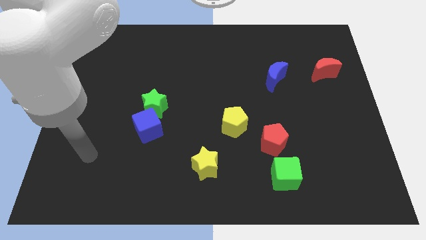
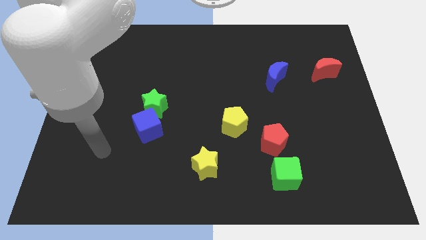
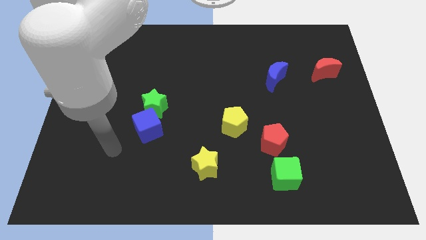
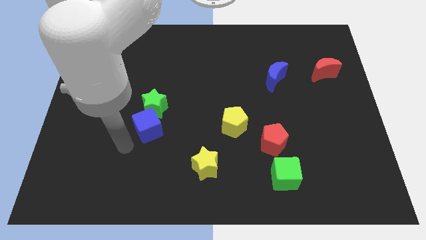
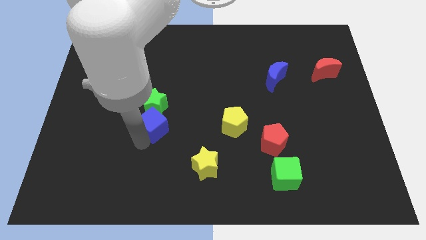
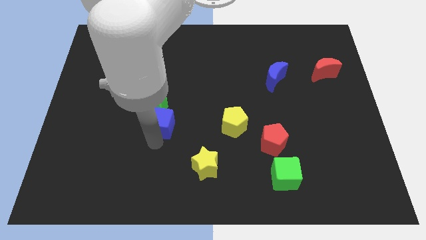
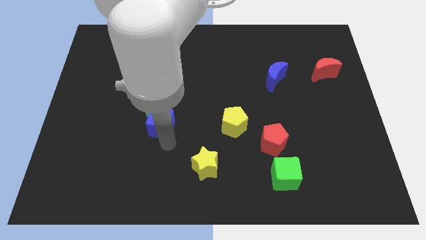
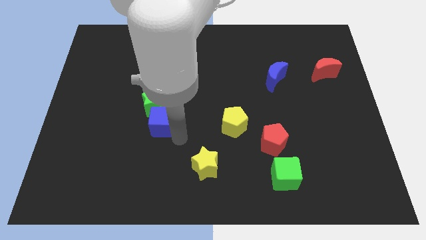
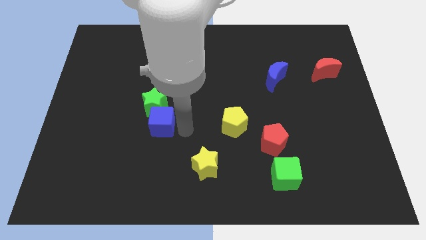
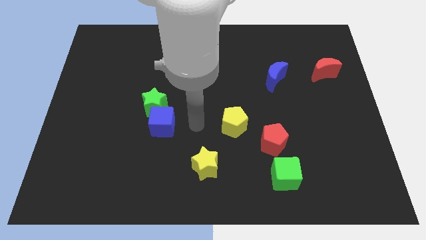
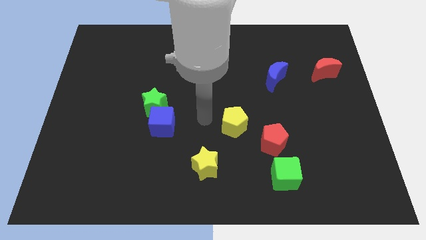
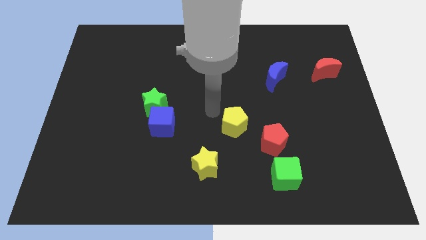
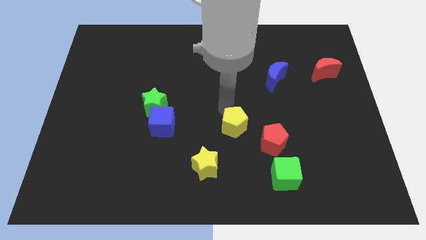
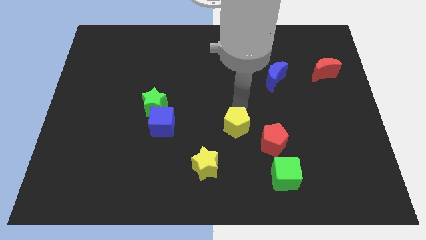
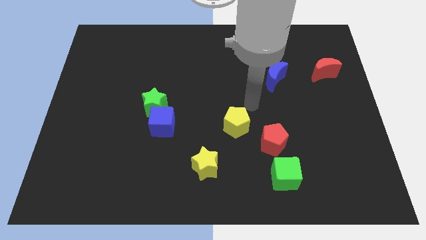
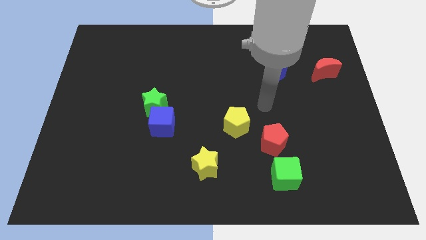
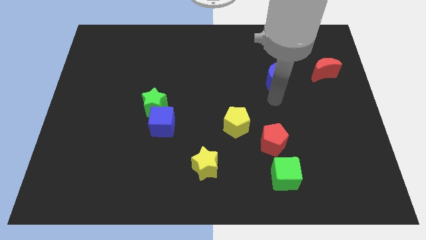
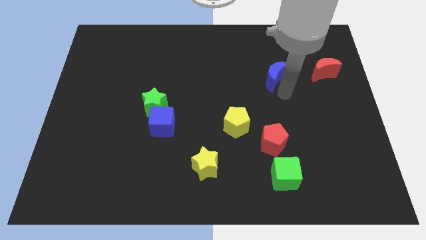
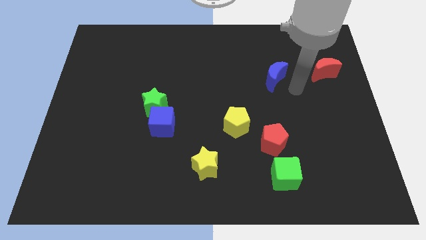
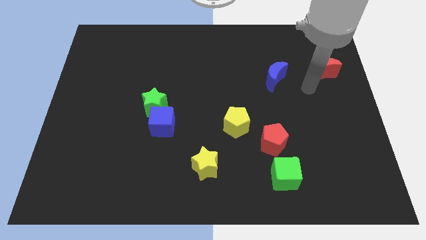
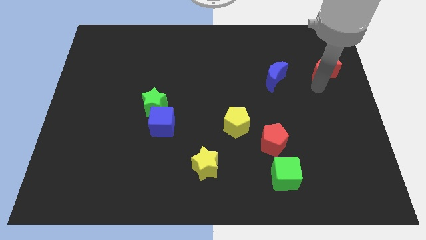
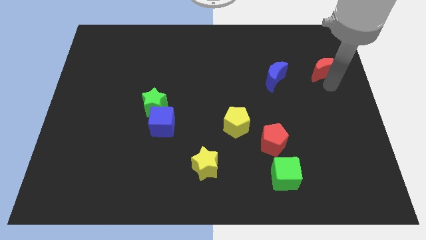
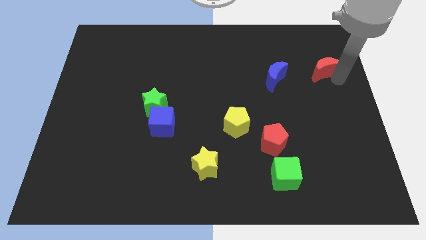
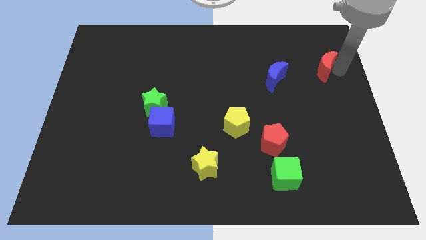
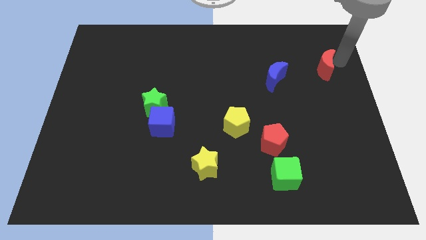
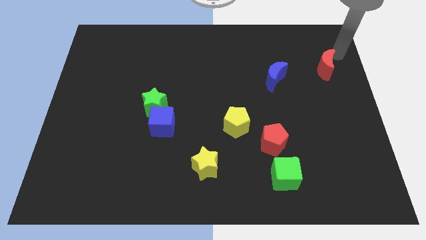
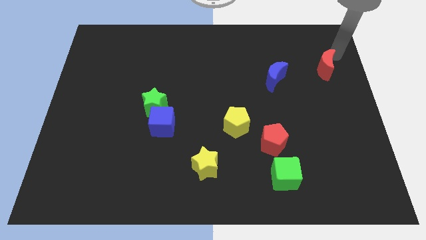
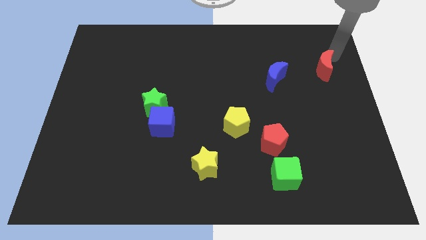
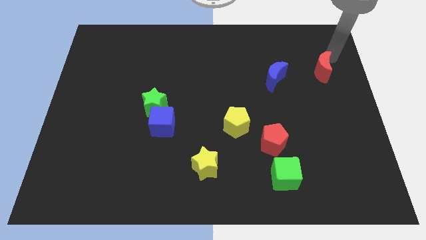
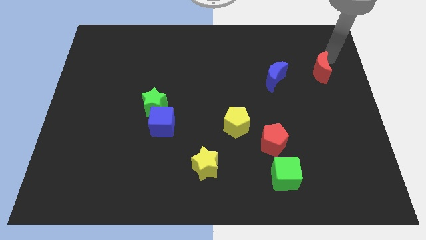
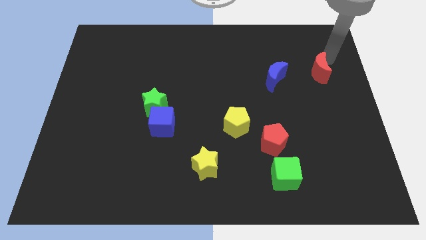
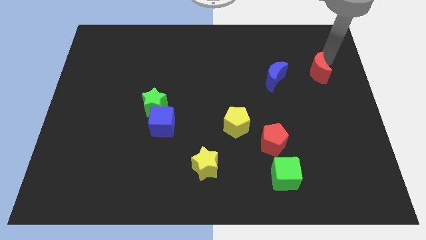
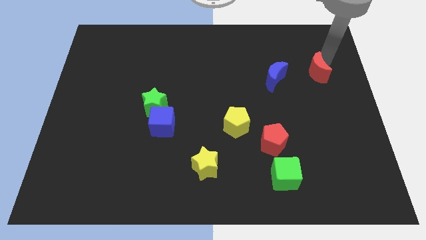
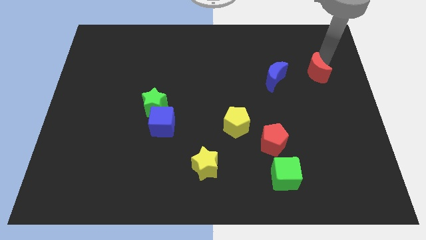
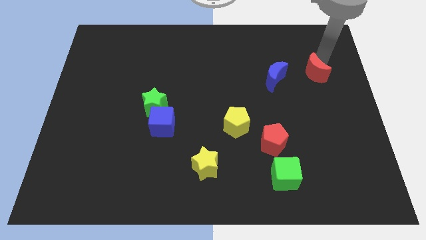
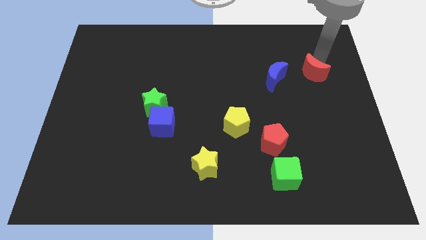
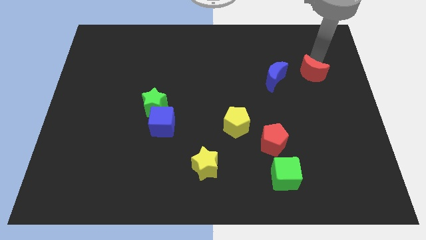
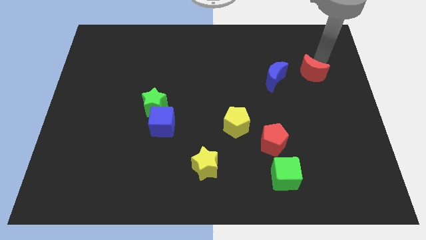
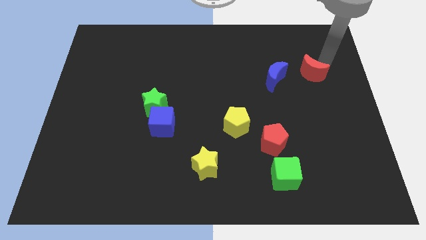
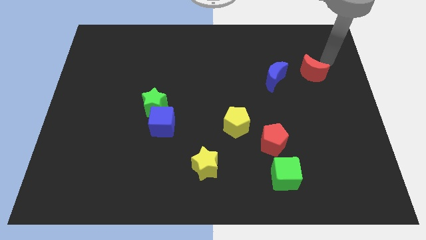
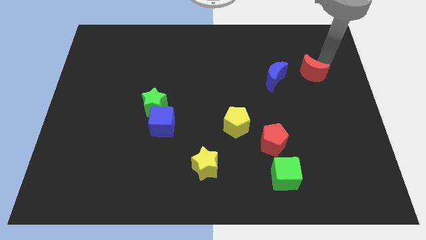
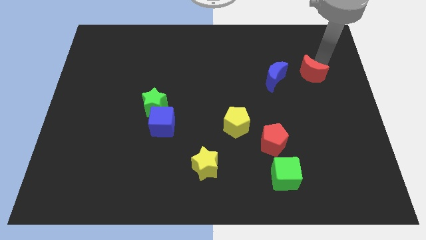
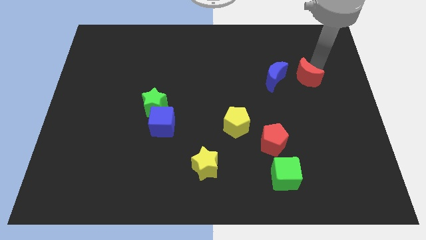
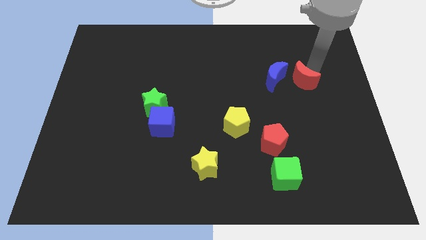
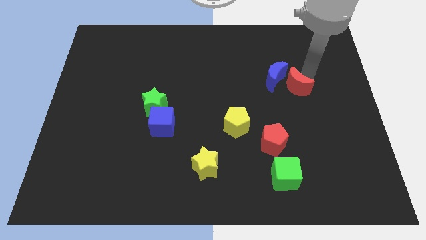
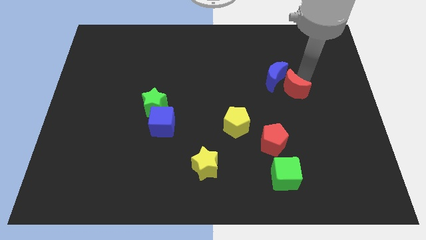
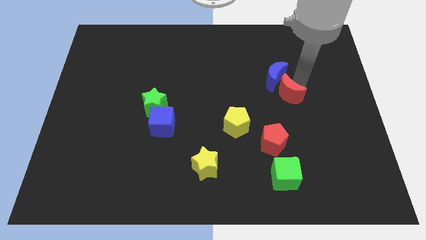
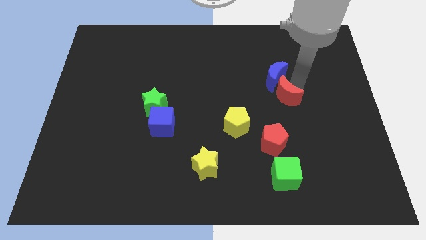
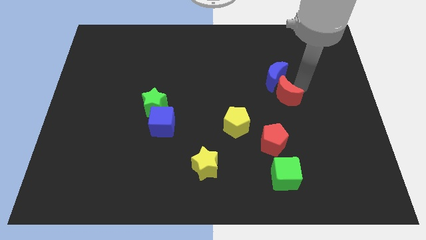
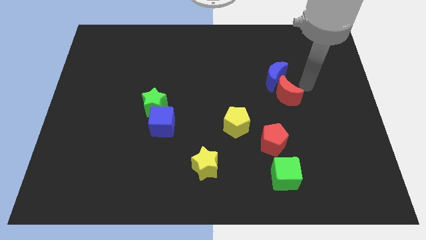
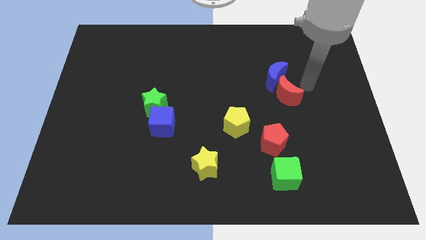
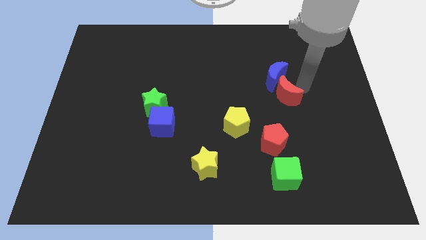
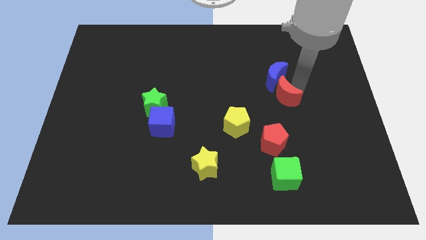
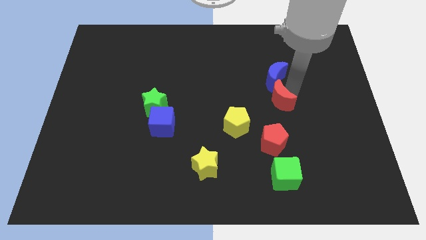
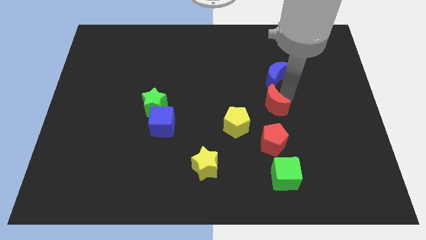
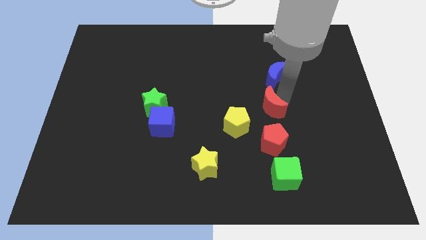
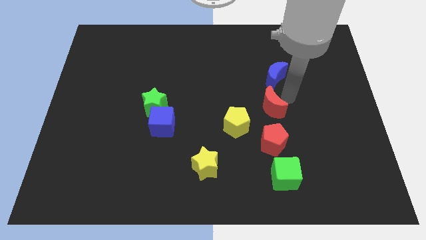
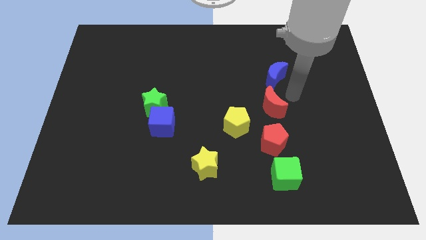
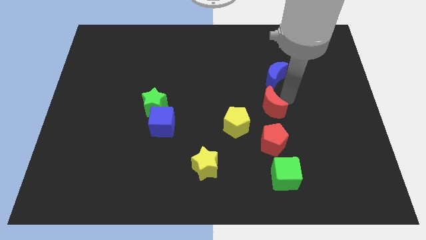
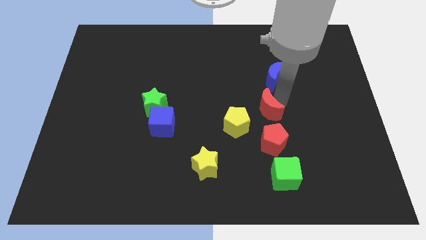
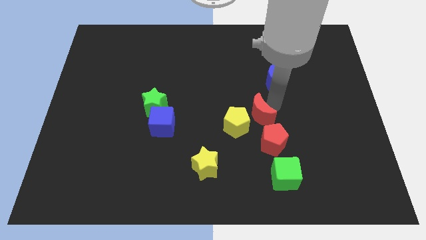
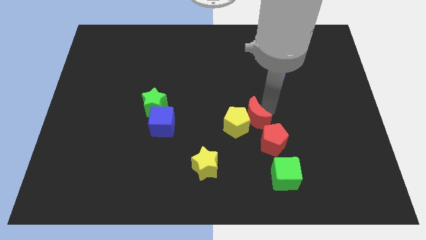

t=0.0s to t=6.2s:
put the red moon towards the yellow pentagon

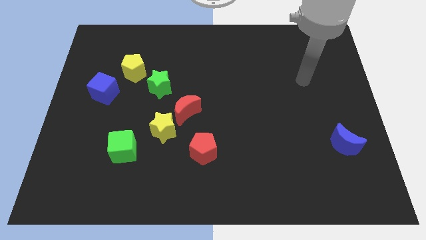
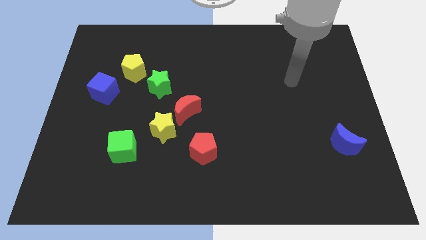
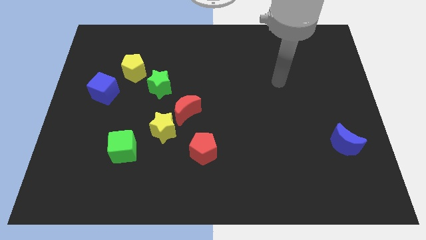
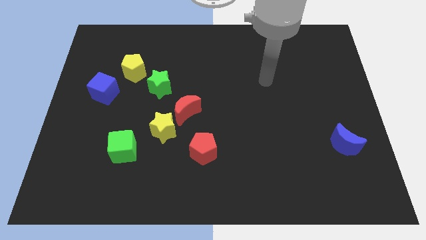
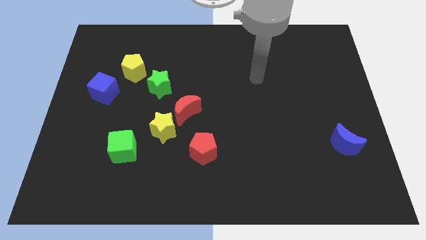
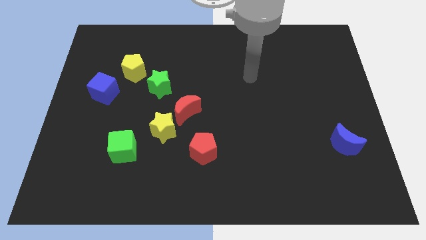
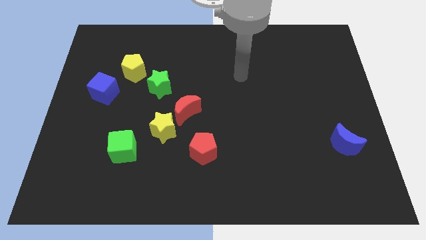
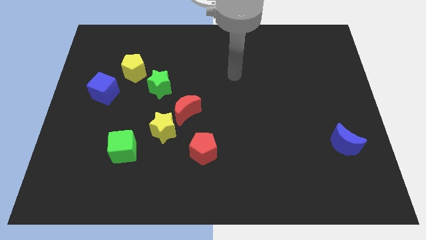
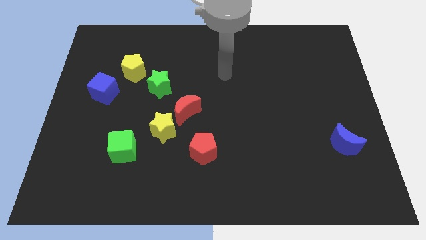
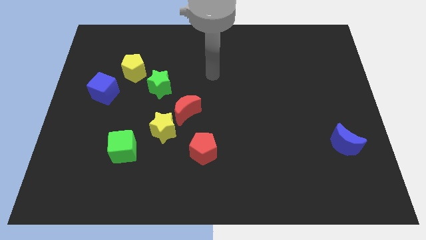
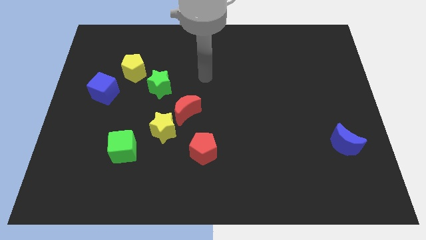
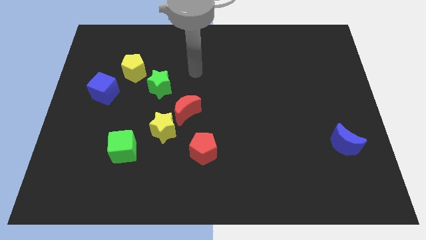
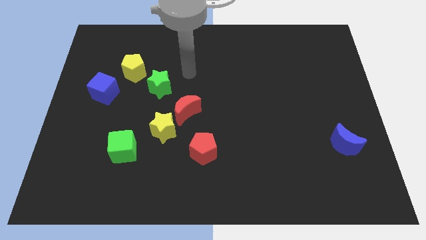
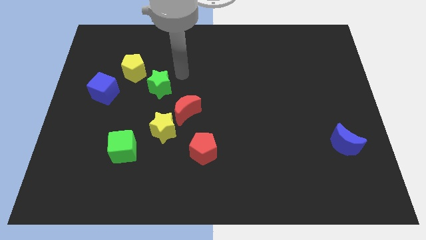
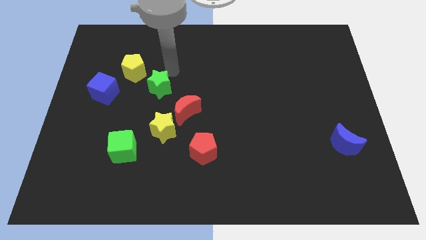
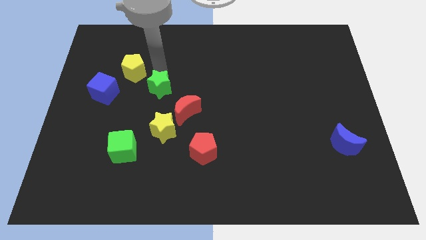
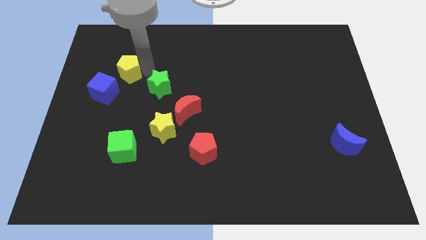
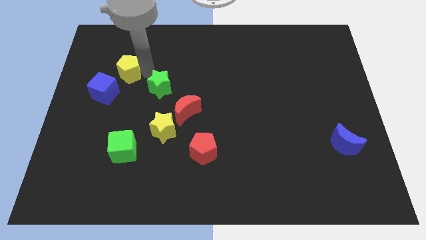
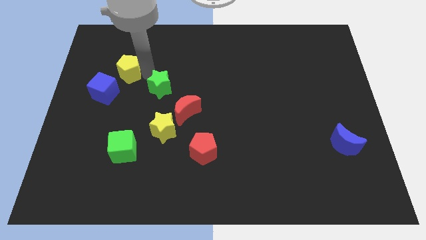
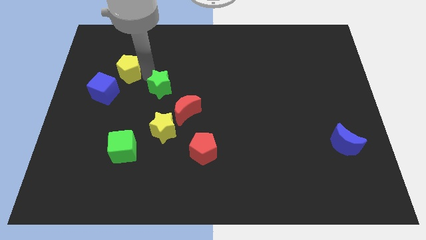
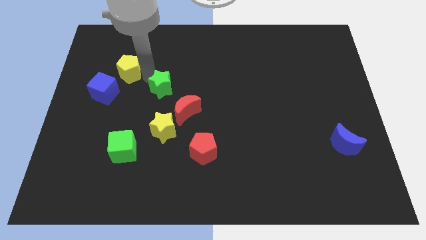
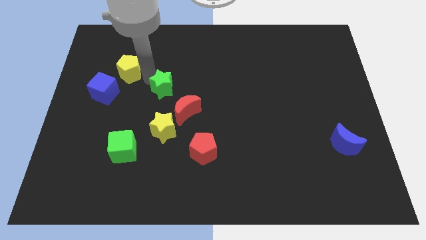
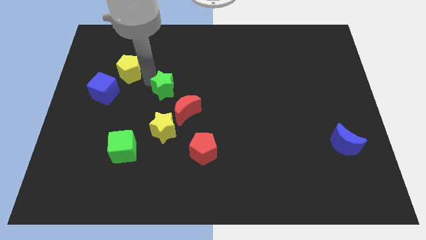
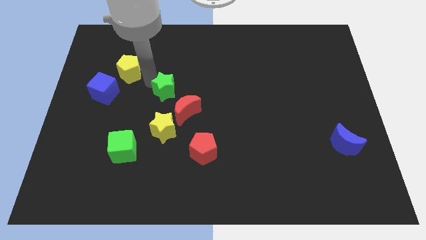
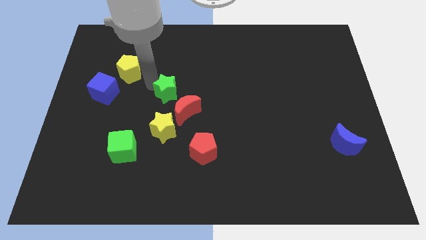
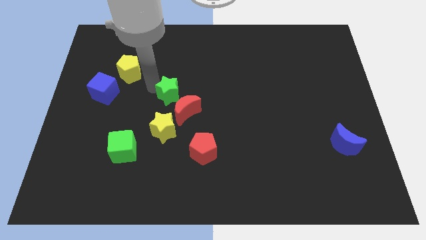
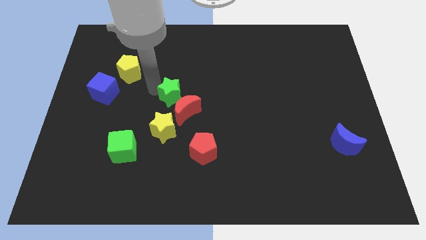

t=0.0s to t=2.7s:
slide the green star next to the red moon
